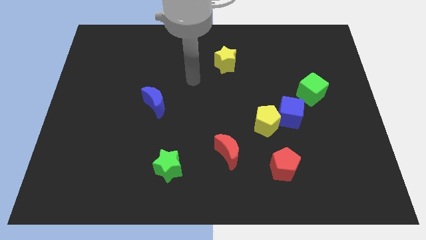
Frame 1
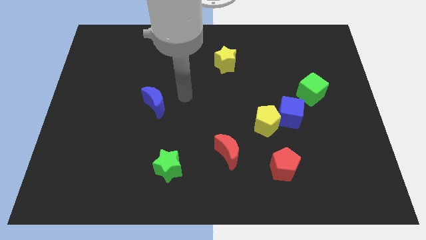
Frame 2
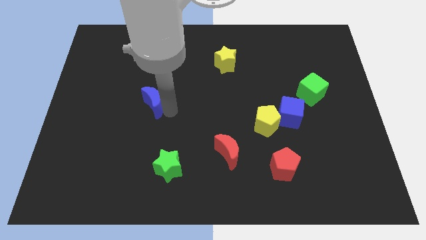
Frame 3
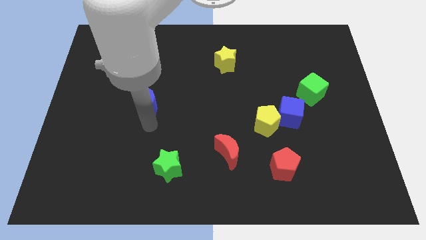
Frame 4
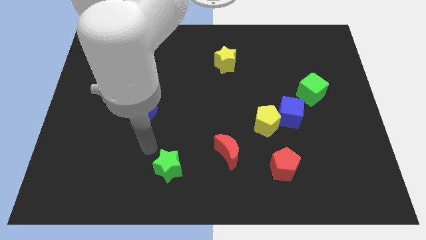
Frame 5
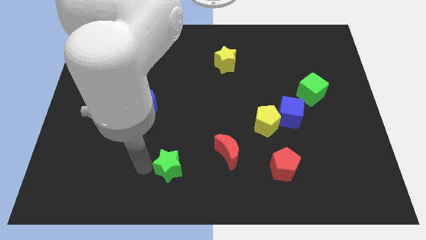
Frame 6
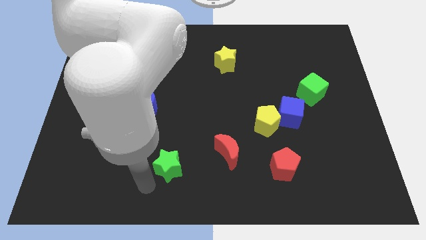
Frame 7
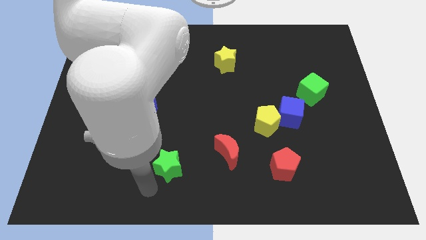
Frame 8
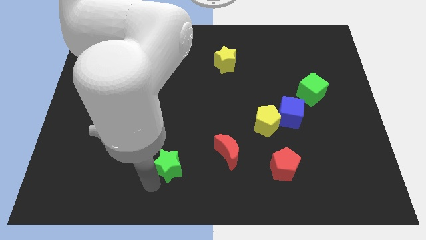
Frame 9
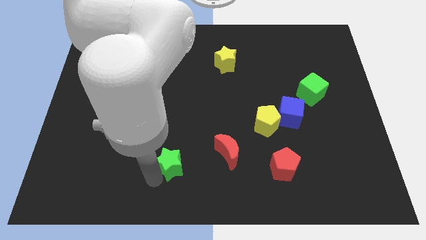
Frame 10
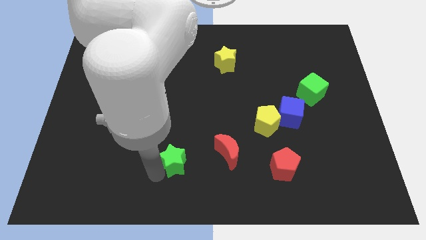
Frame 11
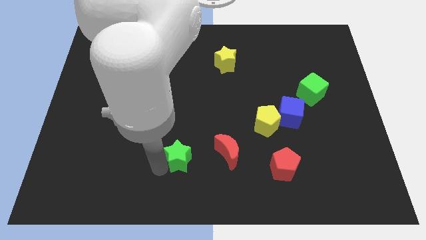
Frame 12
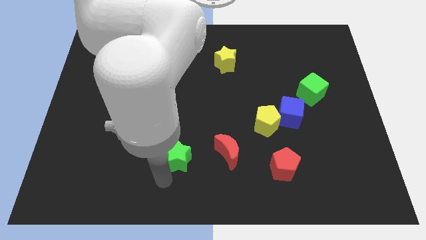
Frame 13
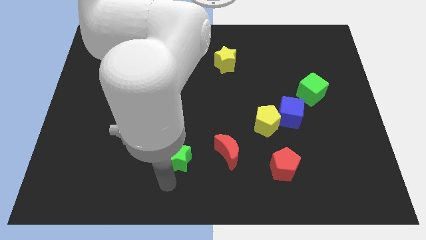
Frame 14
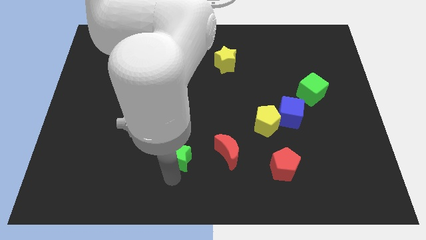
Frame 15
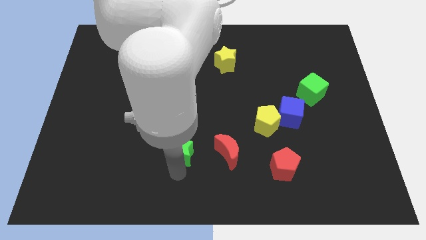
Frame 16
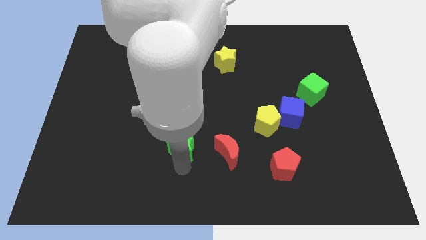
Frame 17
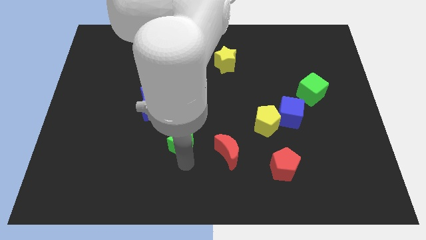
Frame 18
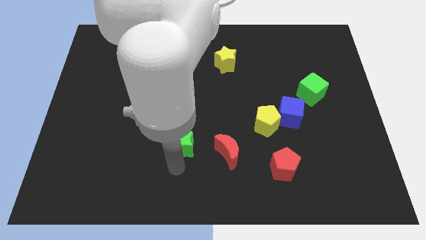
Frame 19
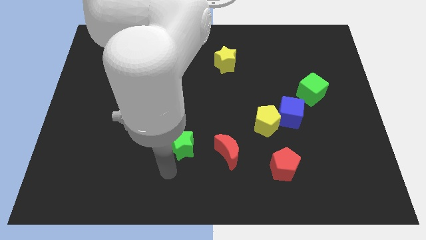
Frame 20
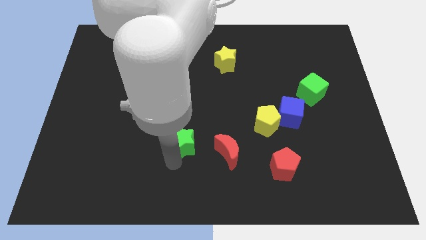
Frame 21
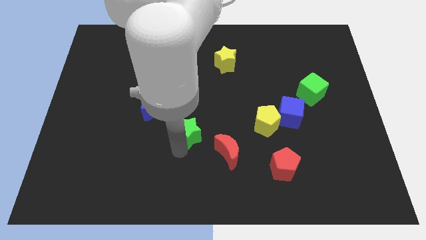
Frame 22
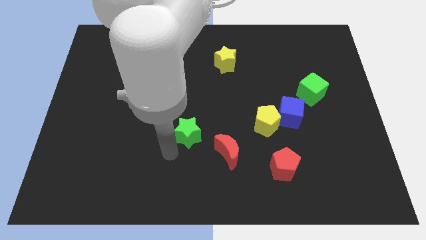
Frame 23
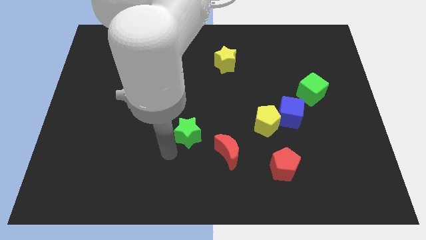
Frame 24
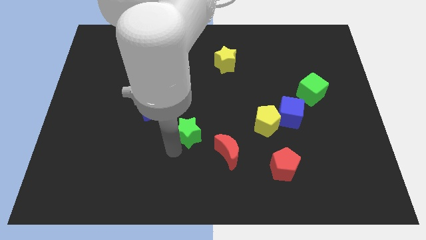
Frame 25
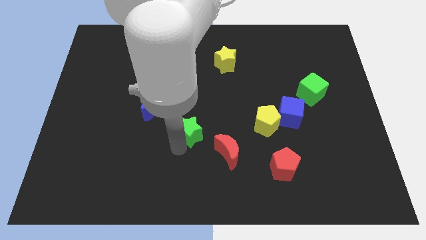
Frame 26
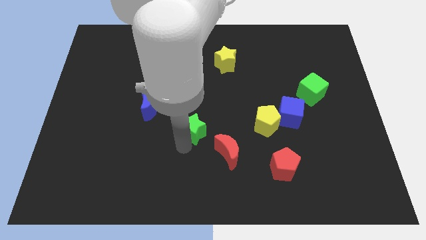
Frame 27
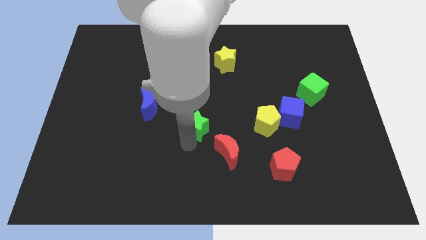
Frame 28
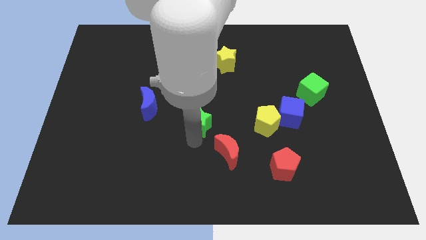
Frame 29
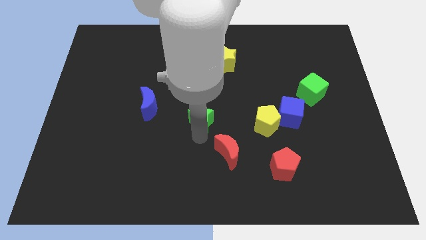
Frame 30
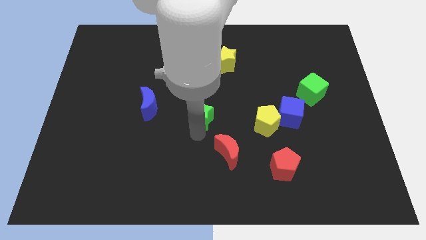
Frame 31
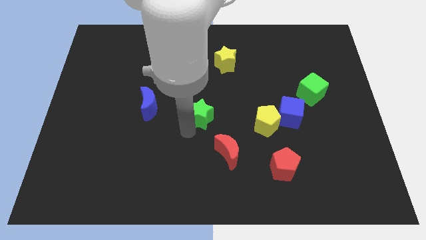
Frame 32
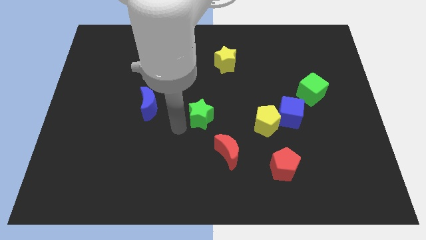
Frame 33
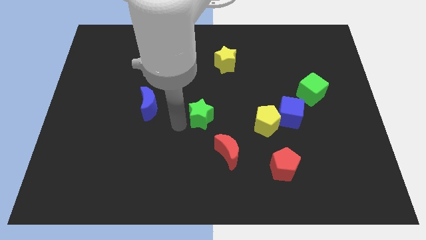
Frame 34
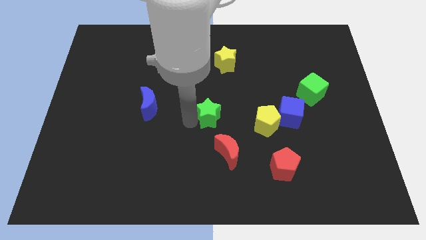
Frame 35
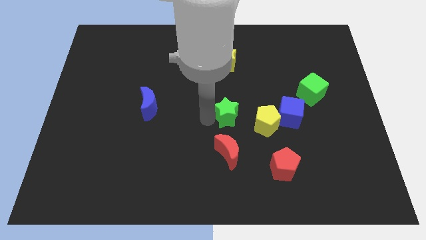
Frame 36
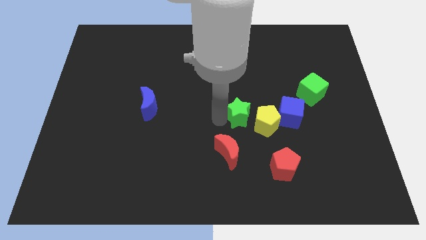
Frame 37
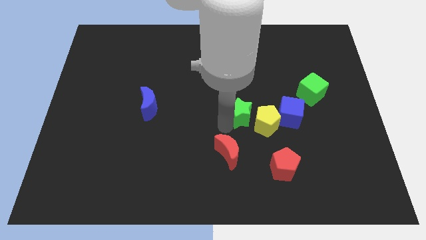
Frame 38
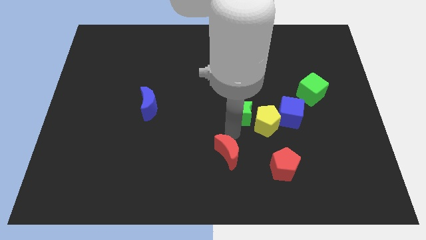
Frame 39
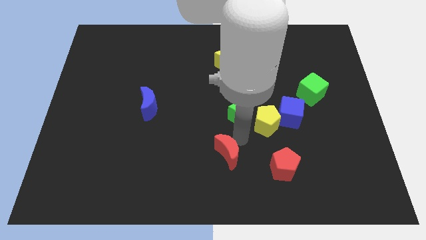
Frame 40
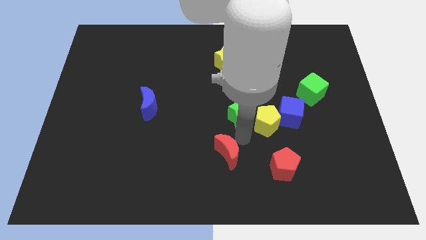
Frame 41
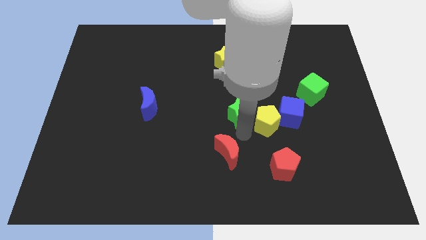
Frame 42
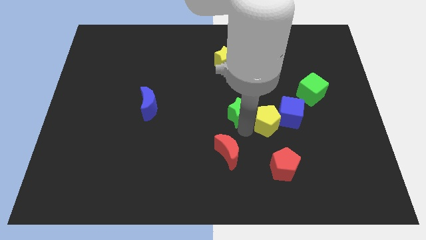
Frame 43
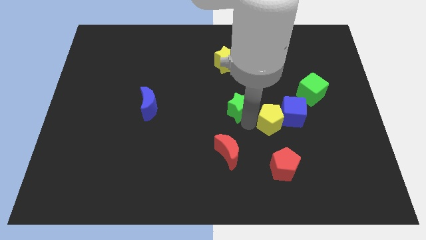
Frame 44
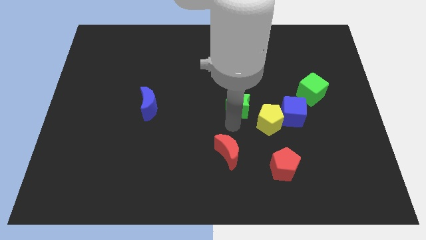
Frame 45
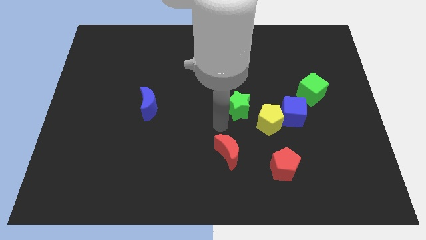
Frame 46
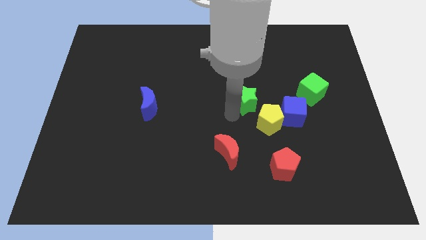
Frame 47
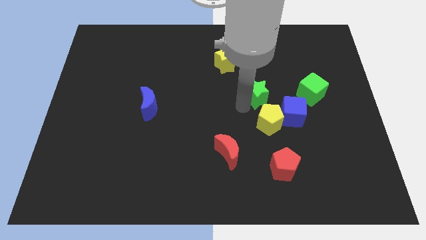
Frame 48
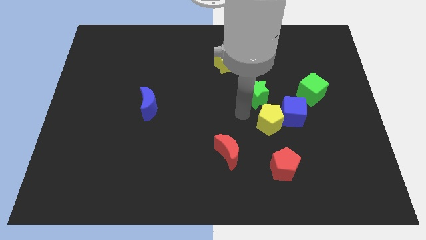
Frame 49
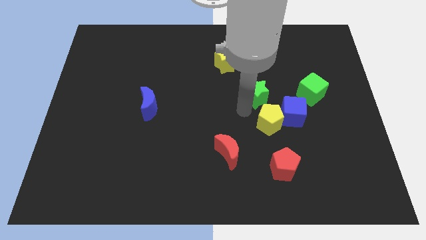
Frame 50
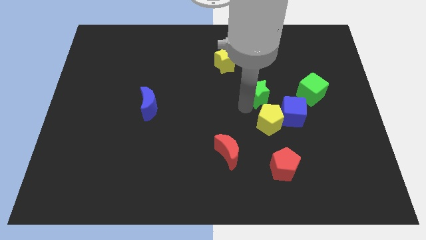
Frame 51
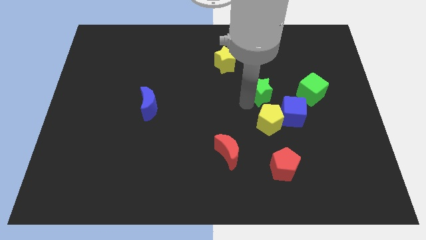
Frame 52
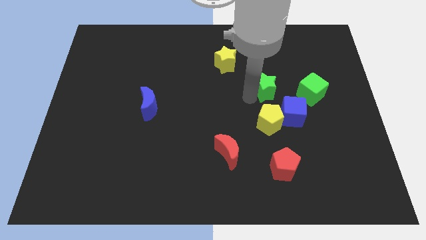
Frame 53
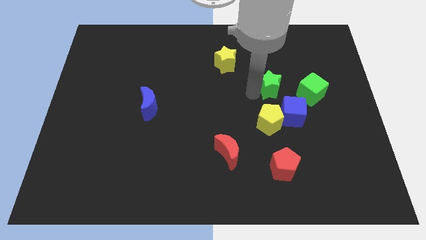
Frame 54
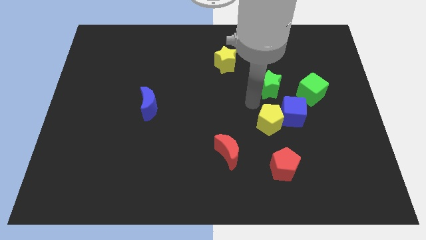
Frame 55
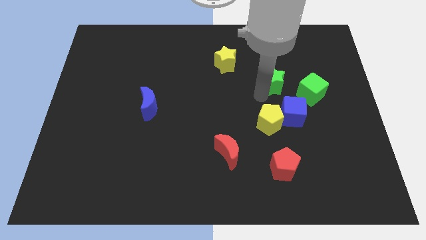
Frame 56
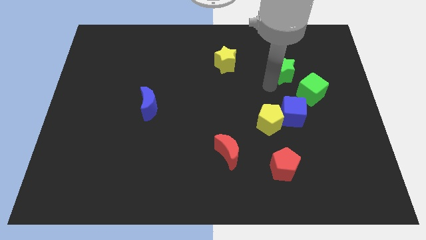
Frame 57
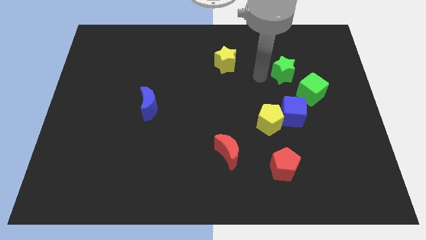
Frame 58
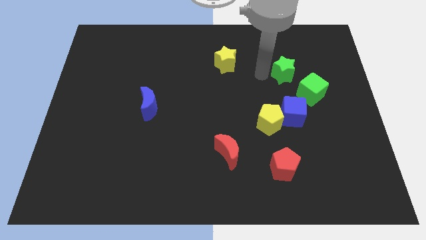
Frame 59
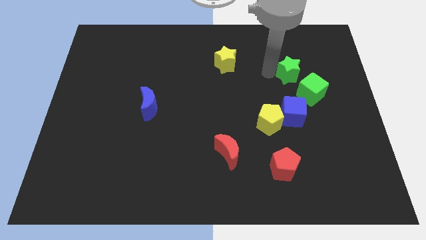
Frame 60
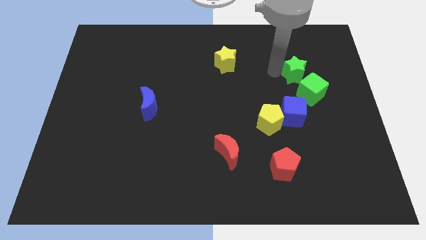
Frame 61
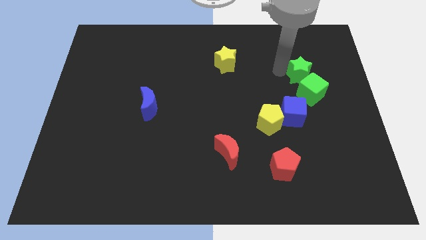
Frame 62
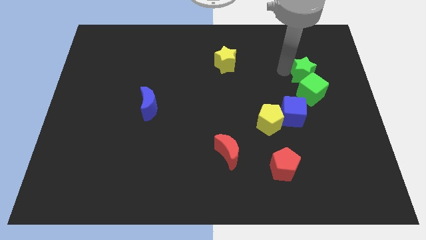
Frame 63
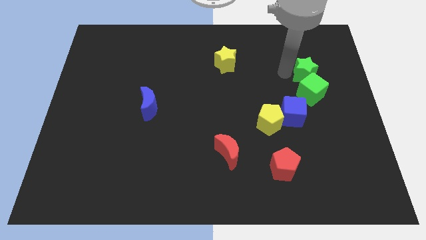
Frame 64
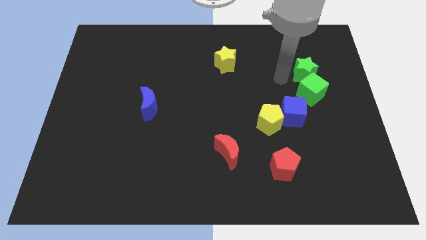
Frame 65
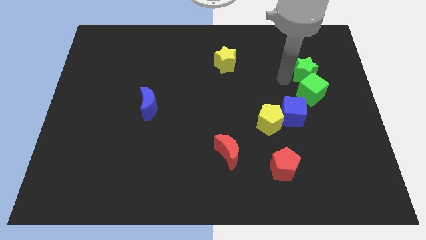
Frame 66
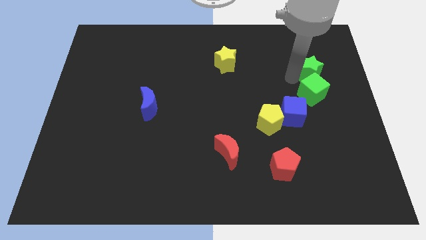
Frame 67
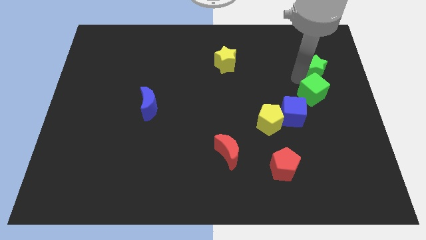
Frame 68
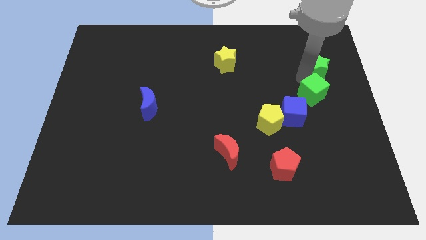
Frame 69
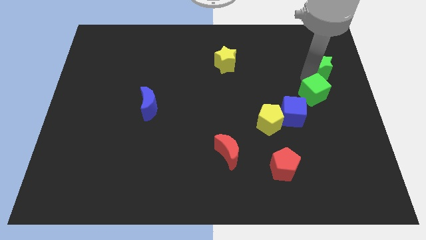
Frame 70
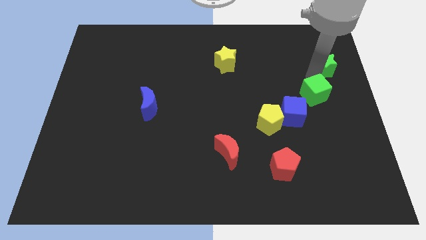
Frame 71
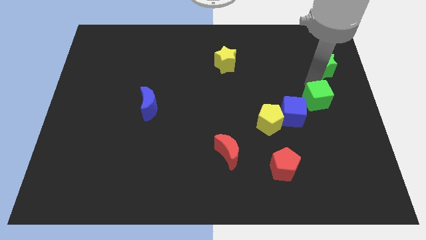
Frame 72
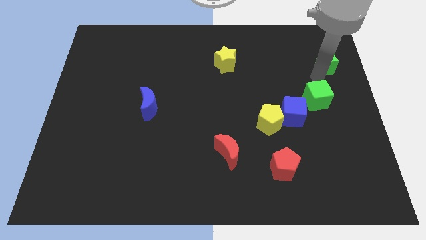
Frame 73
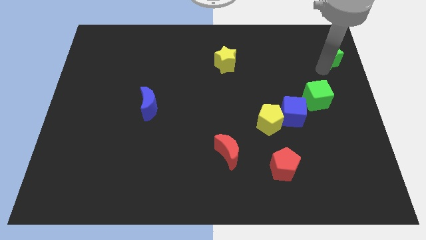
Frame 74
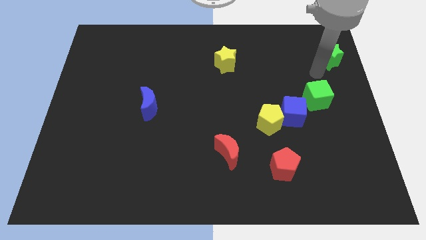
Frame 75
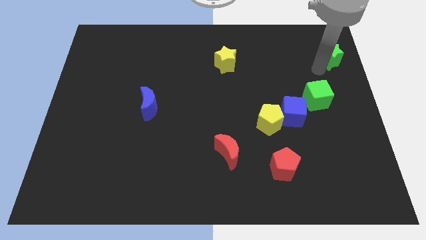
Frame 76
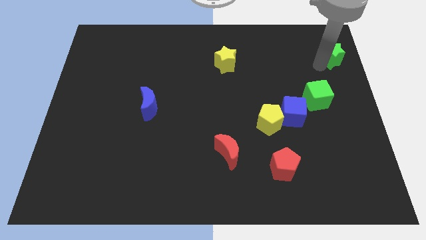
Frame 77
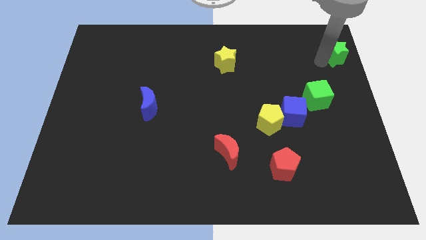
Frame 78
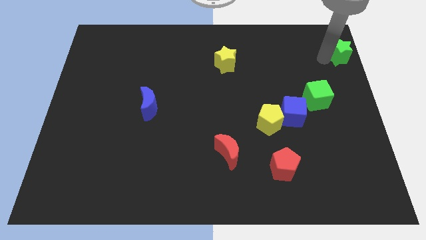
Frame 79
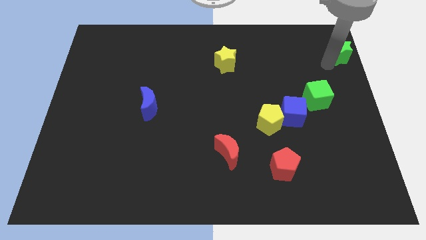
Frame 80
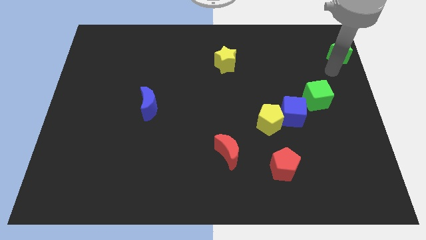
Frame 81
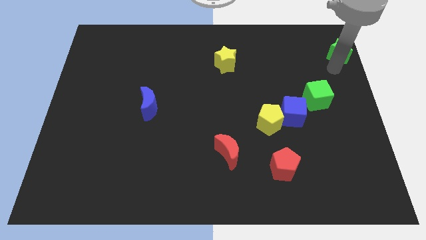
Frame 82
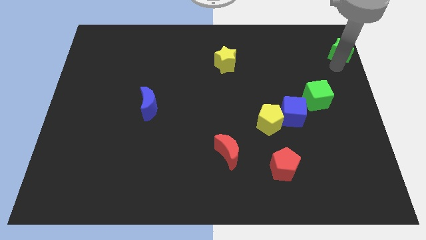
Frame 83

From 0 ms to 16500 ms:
put the green star to the upper right corner

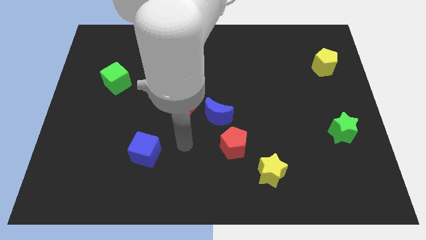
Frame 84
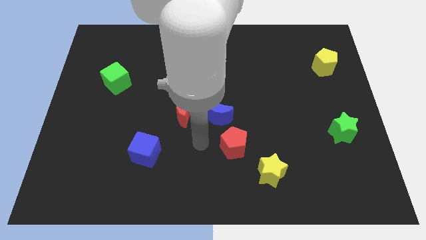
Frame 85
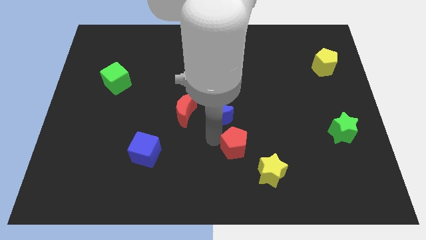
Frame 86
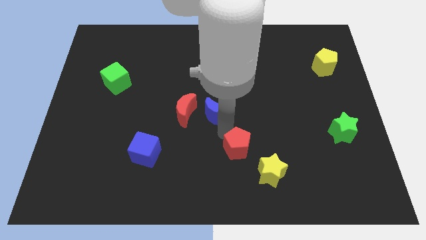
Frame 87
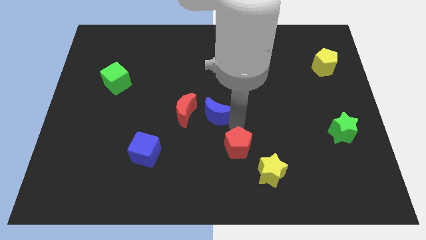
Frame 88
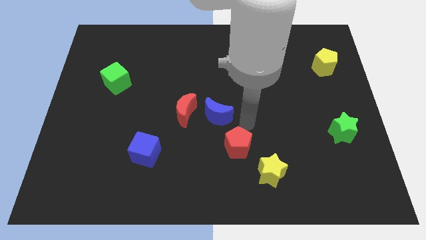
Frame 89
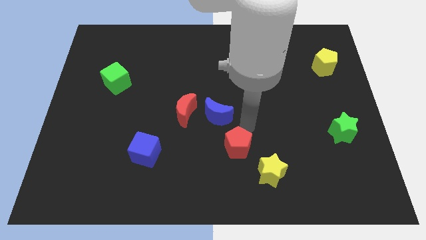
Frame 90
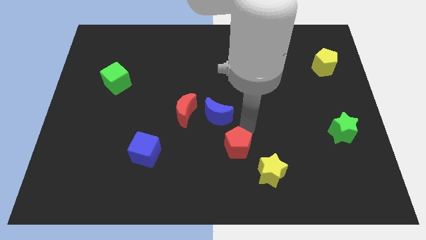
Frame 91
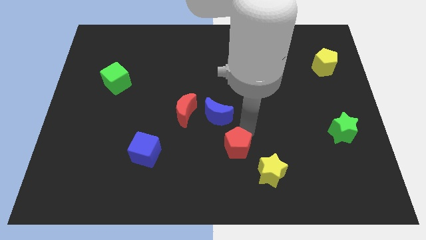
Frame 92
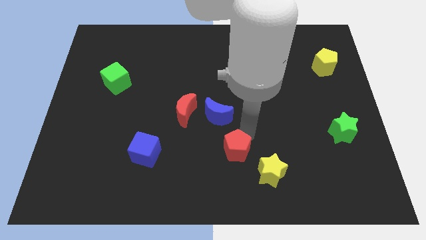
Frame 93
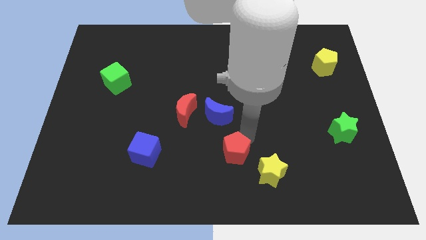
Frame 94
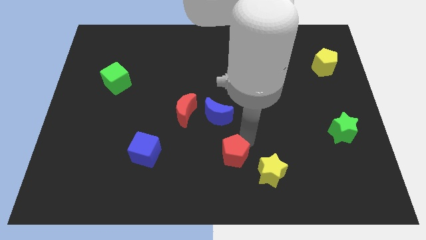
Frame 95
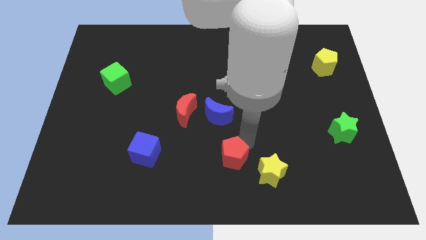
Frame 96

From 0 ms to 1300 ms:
push the red pentagon to the bottom side
